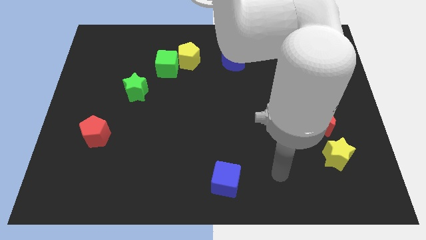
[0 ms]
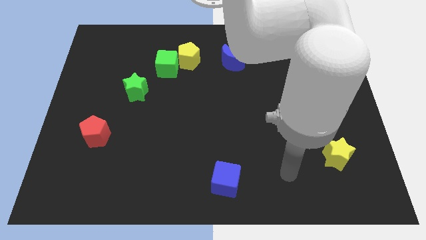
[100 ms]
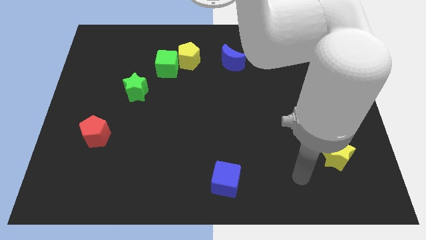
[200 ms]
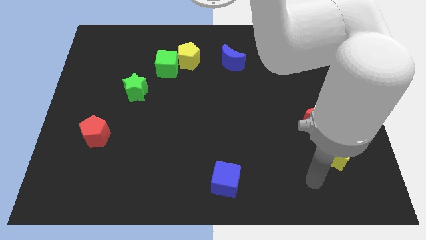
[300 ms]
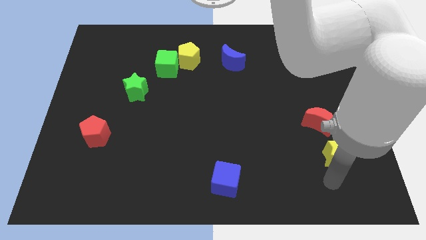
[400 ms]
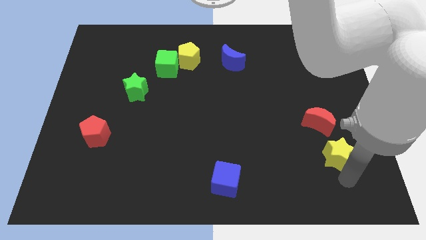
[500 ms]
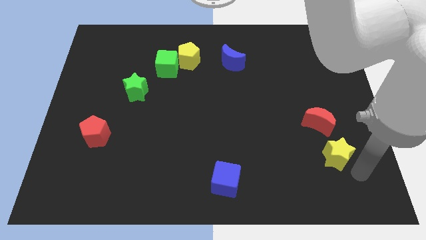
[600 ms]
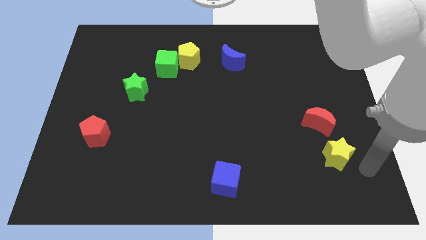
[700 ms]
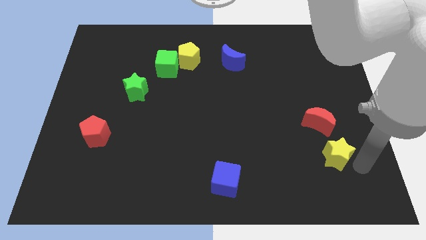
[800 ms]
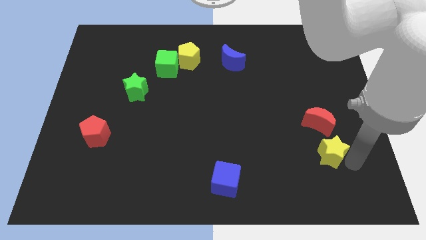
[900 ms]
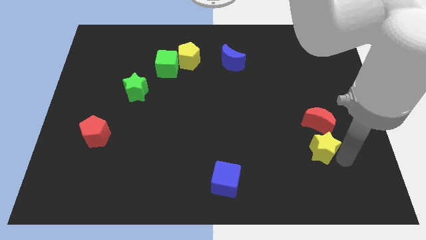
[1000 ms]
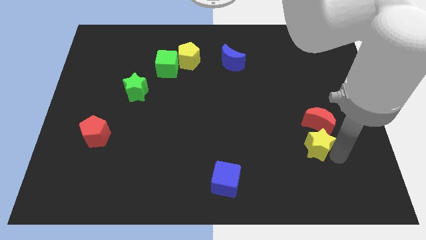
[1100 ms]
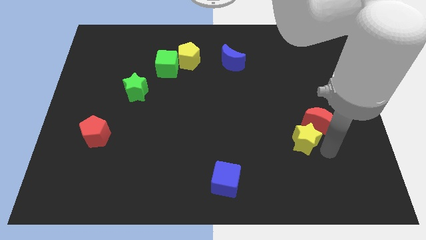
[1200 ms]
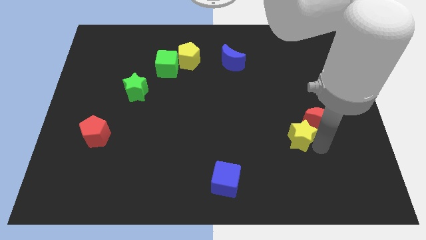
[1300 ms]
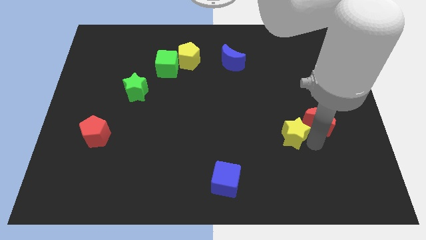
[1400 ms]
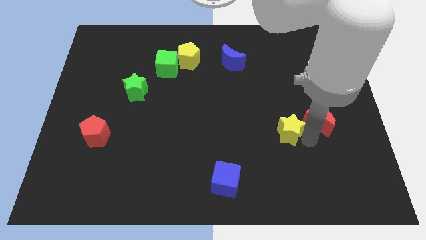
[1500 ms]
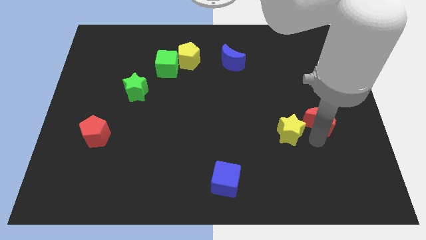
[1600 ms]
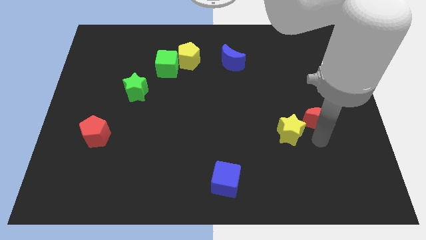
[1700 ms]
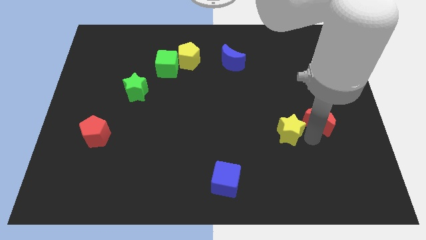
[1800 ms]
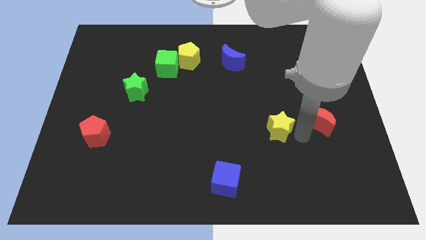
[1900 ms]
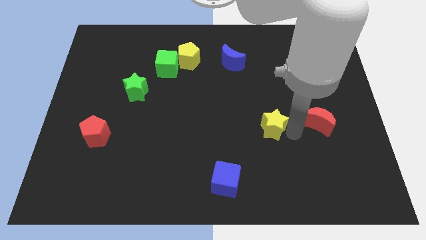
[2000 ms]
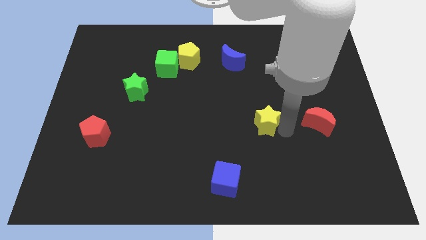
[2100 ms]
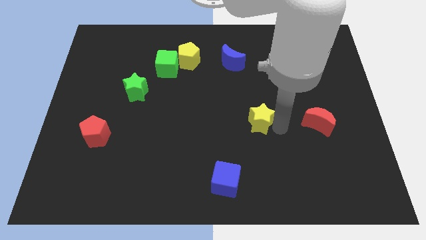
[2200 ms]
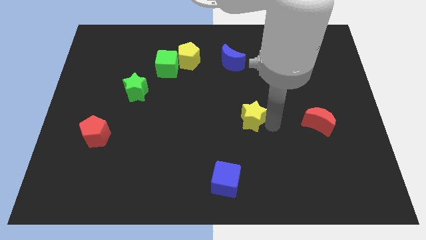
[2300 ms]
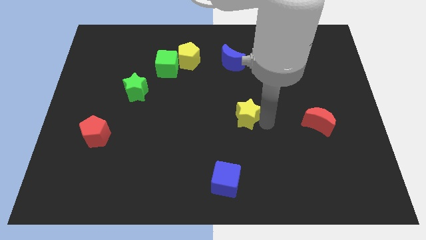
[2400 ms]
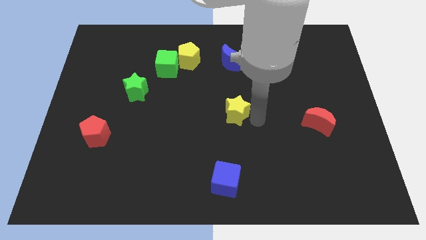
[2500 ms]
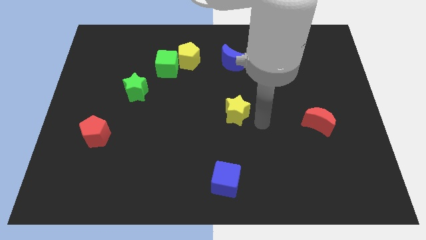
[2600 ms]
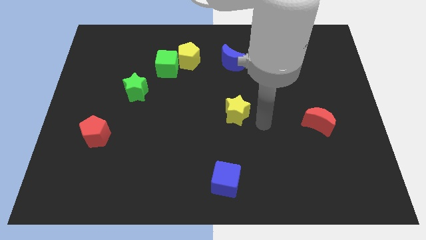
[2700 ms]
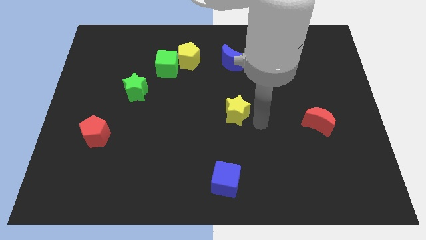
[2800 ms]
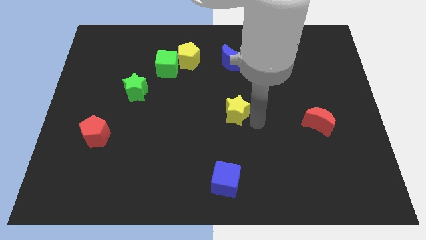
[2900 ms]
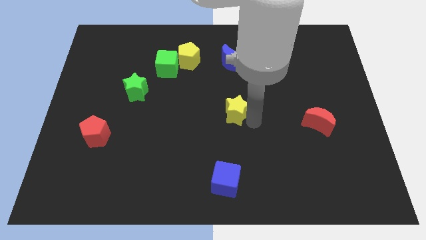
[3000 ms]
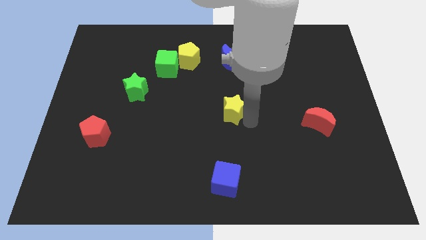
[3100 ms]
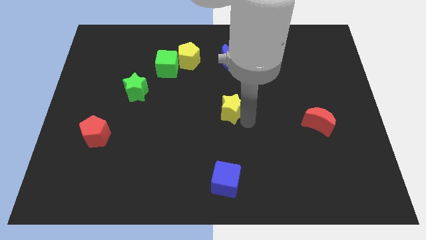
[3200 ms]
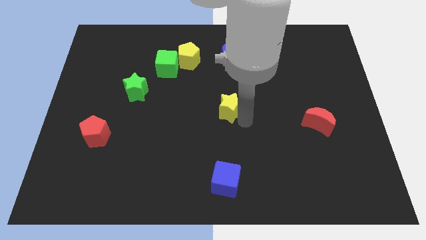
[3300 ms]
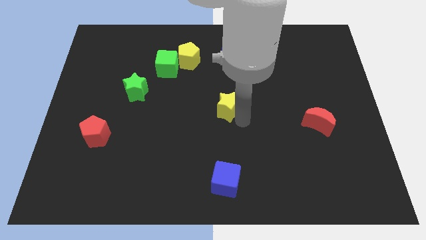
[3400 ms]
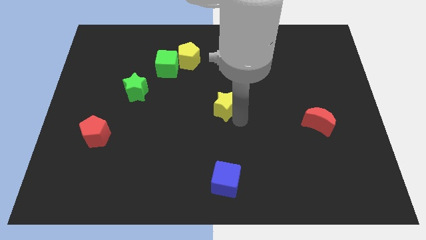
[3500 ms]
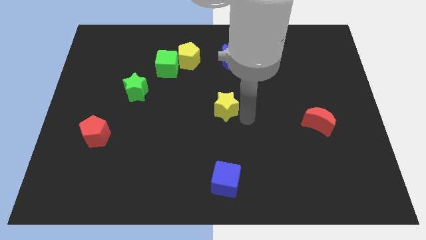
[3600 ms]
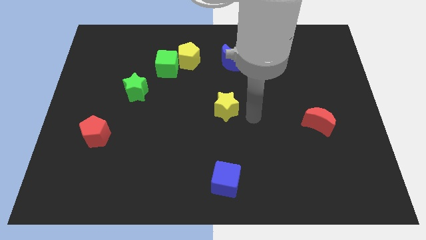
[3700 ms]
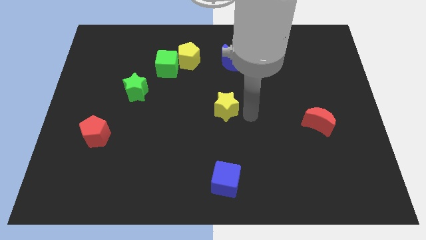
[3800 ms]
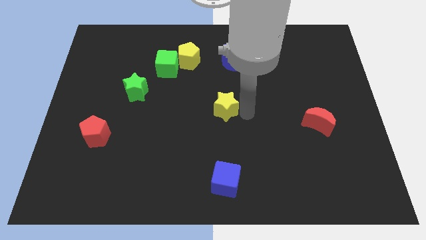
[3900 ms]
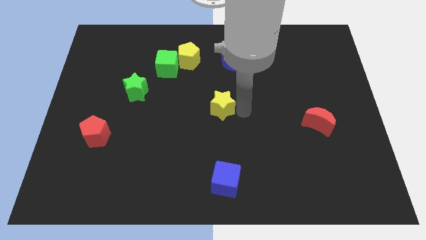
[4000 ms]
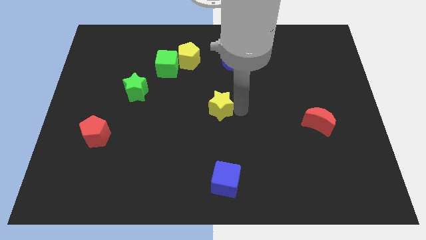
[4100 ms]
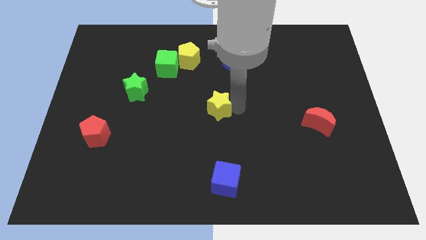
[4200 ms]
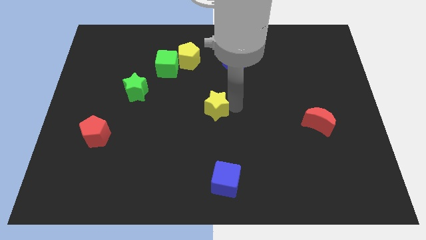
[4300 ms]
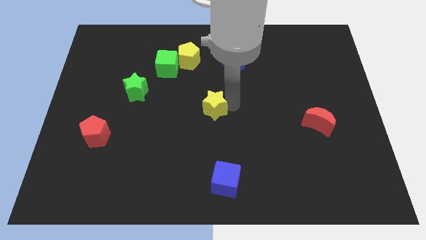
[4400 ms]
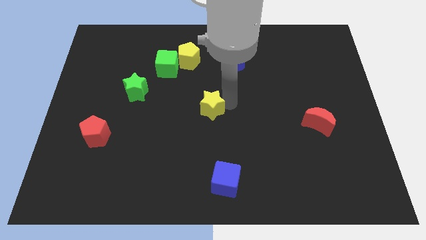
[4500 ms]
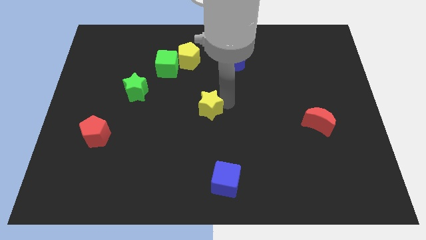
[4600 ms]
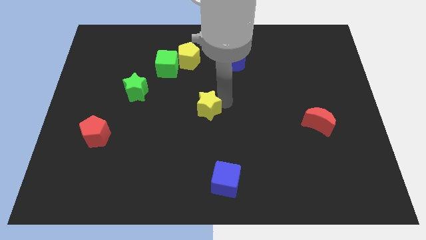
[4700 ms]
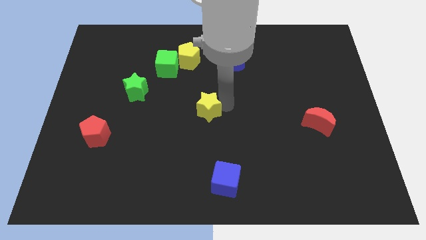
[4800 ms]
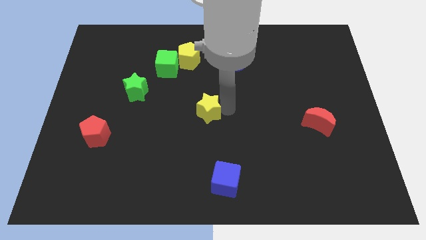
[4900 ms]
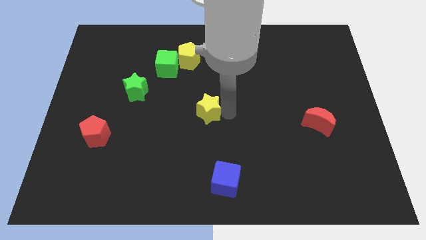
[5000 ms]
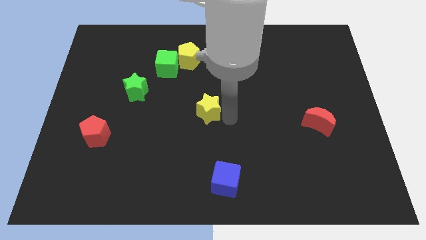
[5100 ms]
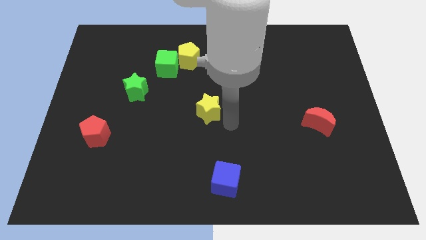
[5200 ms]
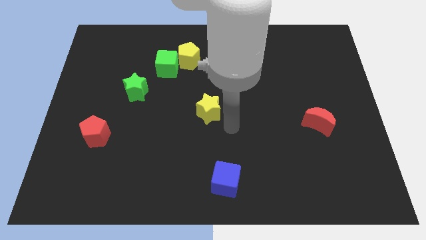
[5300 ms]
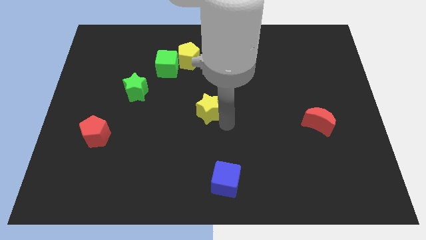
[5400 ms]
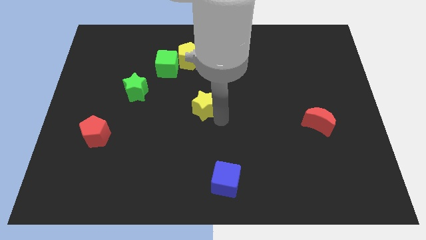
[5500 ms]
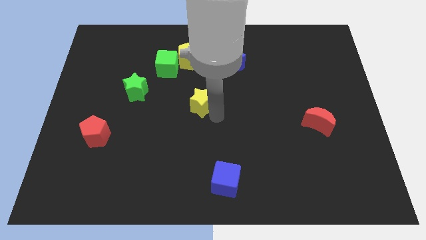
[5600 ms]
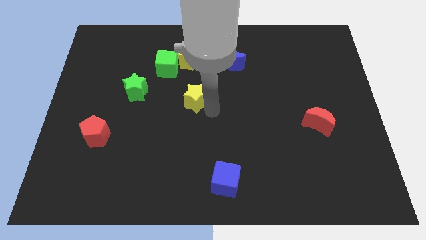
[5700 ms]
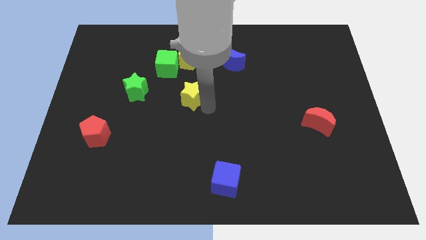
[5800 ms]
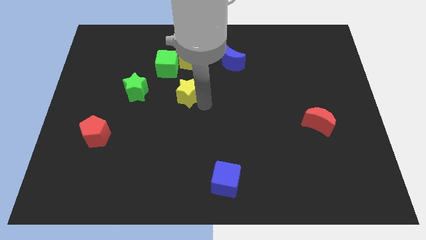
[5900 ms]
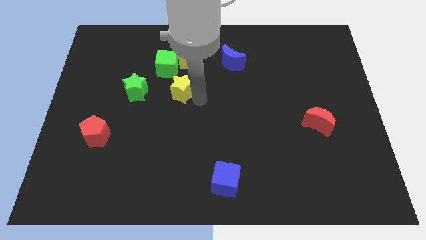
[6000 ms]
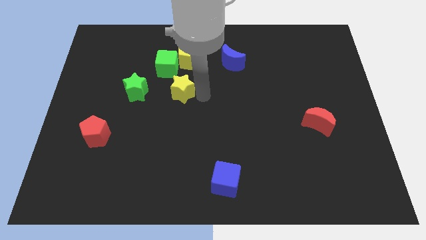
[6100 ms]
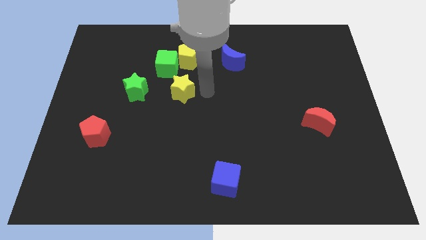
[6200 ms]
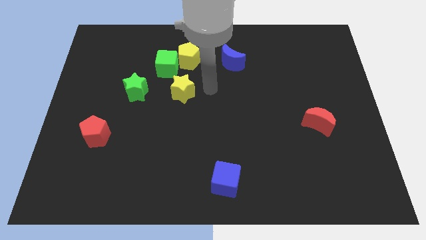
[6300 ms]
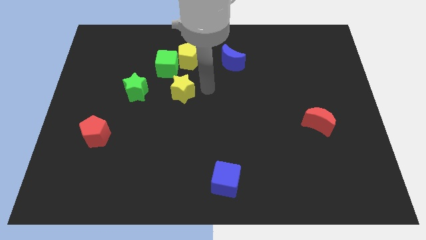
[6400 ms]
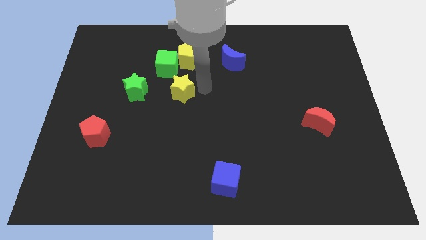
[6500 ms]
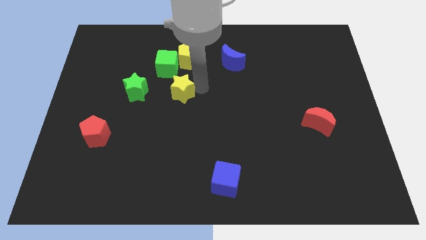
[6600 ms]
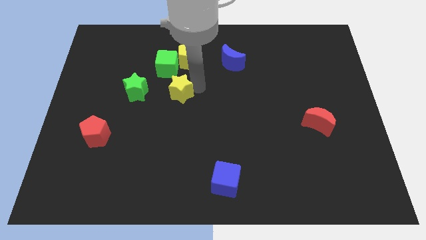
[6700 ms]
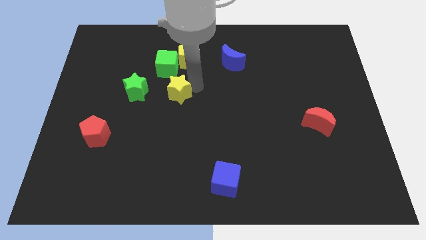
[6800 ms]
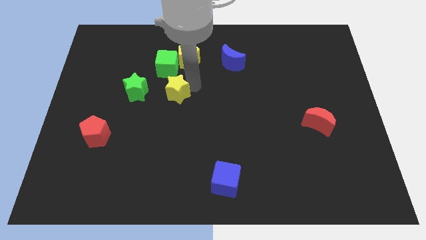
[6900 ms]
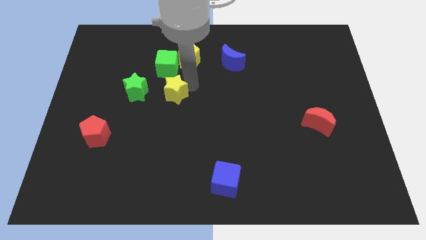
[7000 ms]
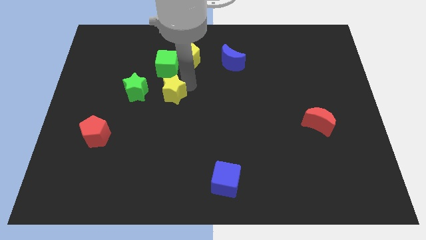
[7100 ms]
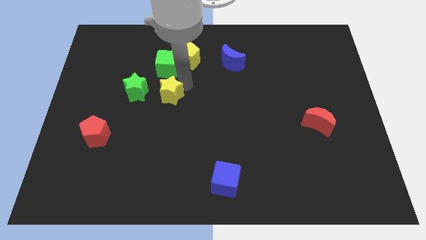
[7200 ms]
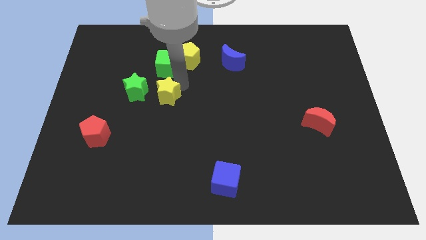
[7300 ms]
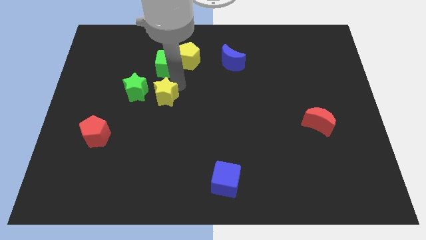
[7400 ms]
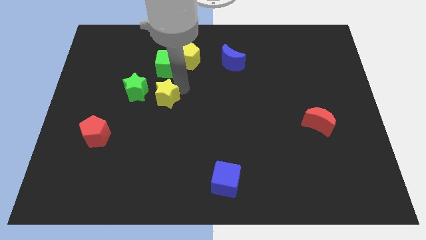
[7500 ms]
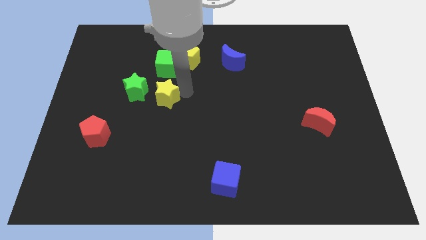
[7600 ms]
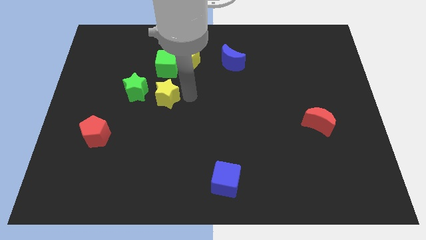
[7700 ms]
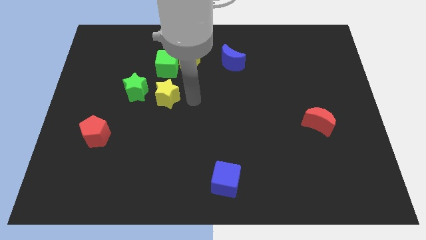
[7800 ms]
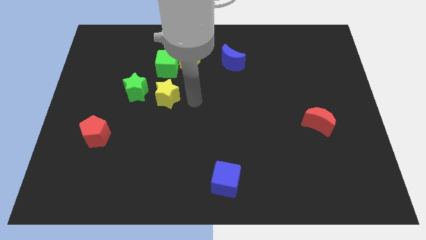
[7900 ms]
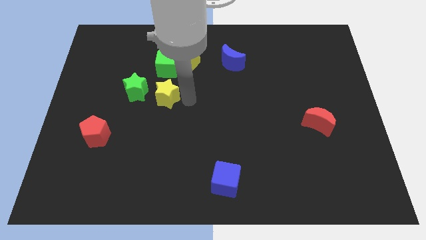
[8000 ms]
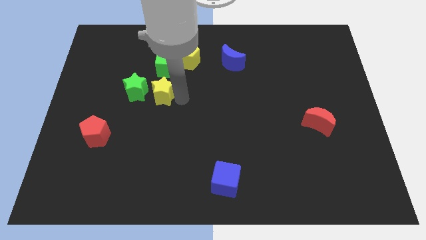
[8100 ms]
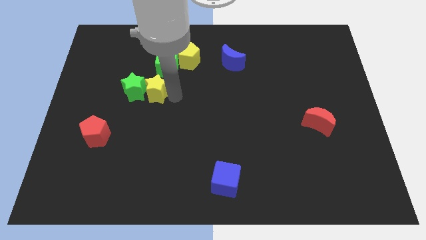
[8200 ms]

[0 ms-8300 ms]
slide the yellow star to the green star

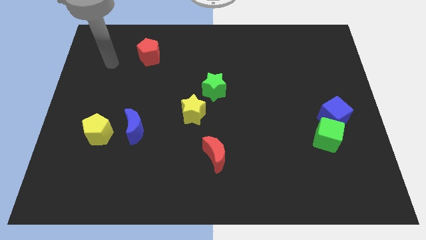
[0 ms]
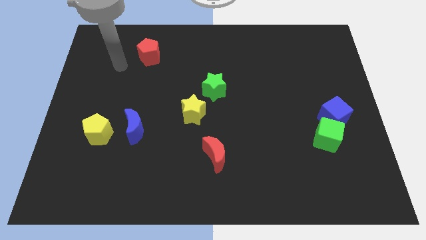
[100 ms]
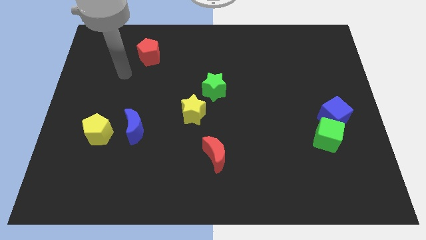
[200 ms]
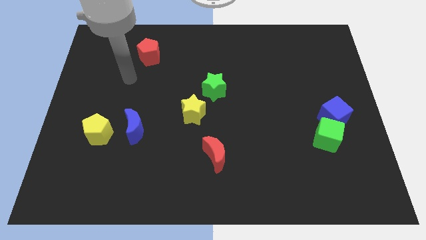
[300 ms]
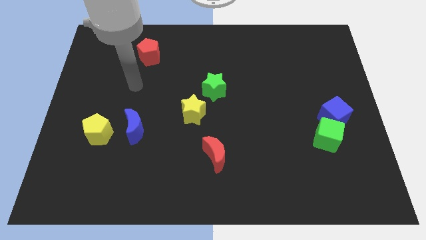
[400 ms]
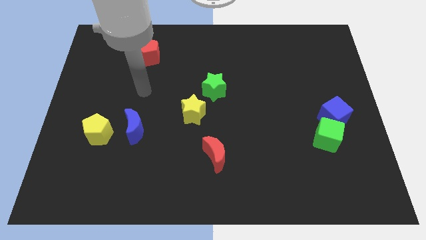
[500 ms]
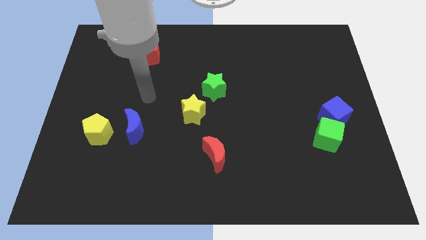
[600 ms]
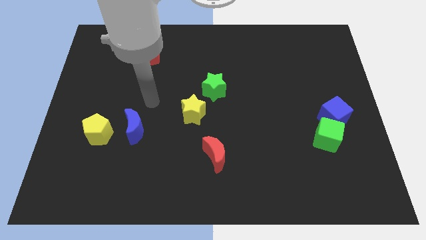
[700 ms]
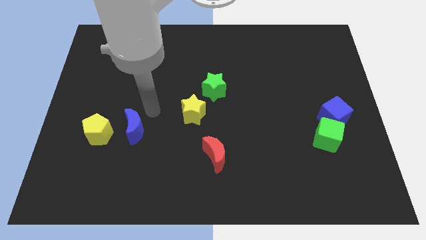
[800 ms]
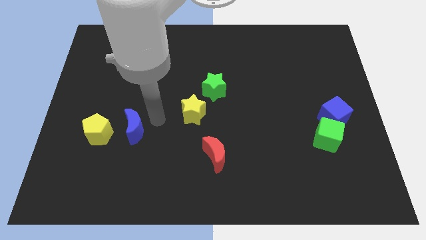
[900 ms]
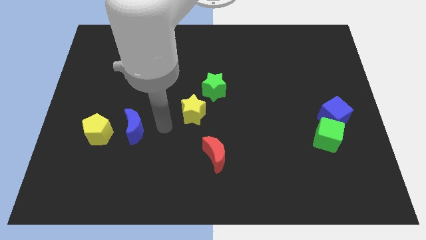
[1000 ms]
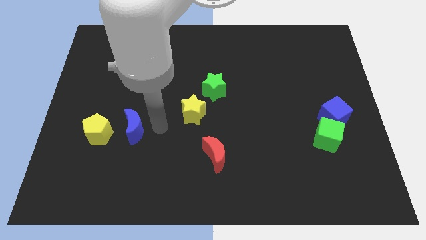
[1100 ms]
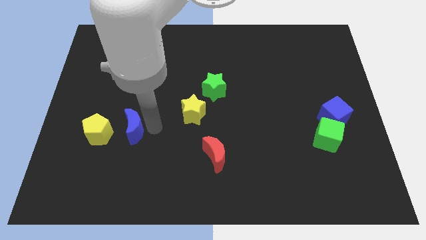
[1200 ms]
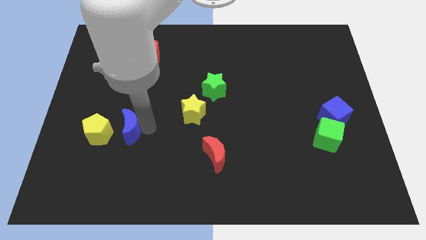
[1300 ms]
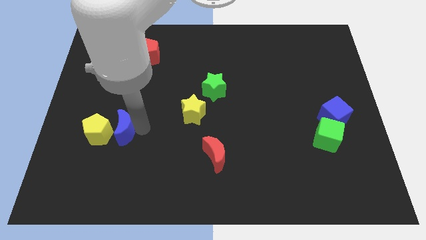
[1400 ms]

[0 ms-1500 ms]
move the blue moon close to the yellow pentagon
